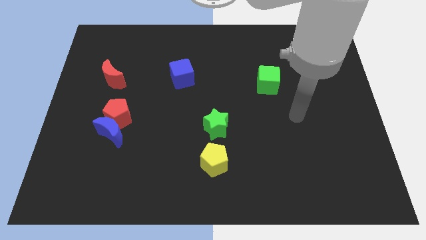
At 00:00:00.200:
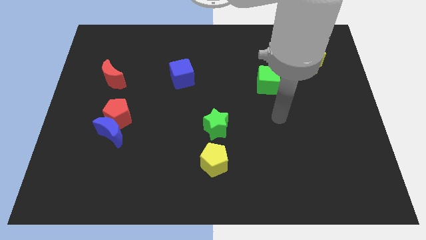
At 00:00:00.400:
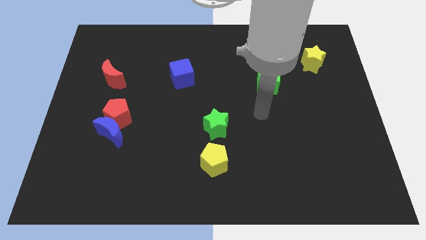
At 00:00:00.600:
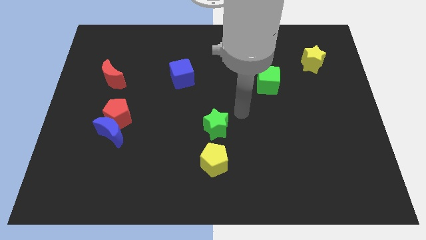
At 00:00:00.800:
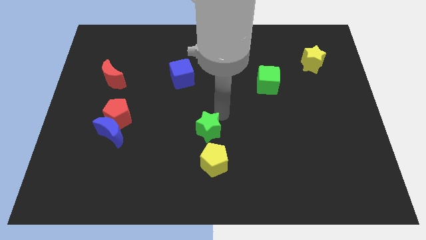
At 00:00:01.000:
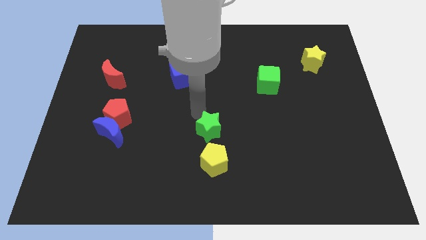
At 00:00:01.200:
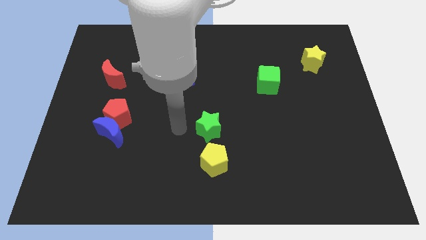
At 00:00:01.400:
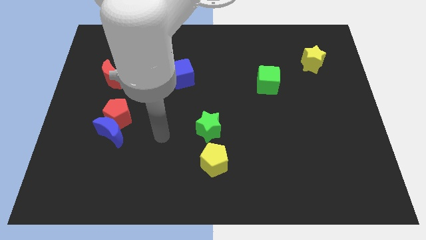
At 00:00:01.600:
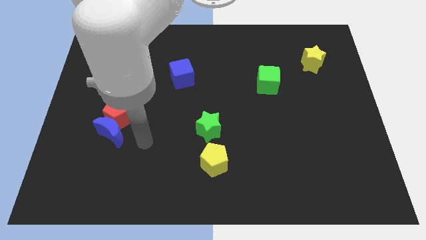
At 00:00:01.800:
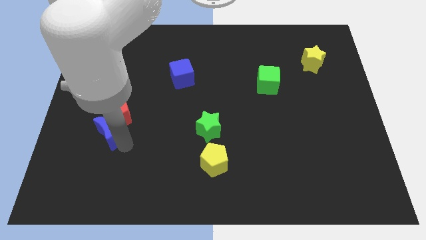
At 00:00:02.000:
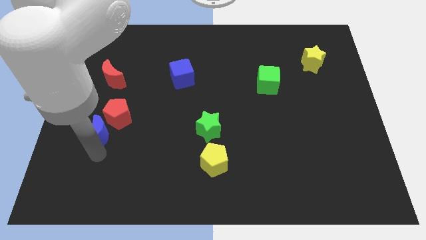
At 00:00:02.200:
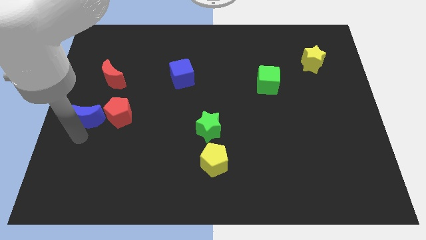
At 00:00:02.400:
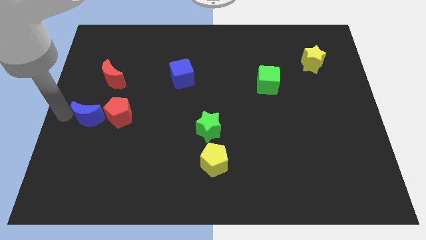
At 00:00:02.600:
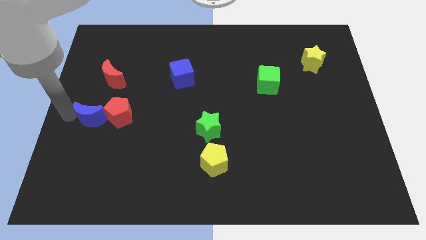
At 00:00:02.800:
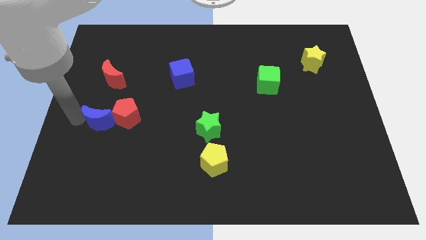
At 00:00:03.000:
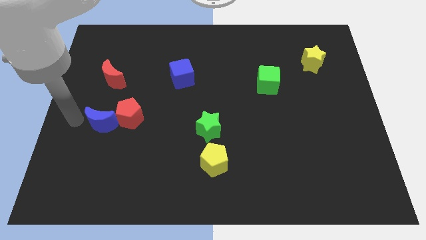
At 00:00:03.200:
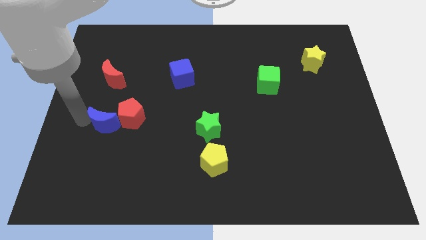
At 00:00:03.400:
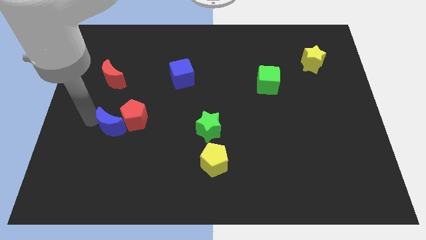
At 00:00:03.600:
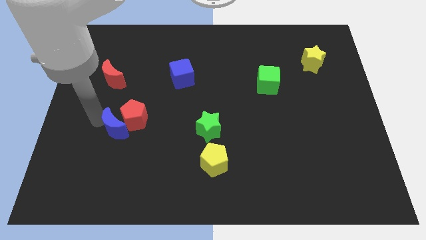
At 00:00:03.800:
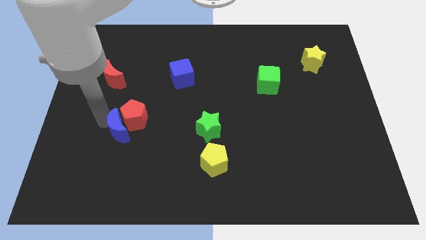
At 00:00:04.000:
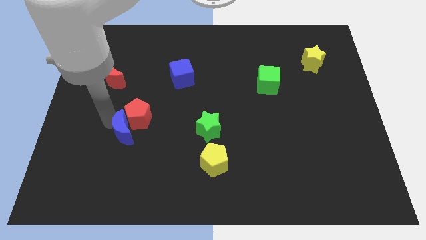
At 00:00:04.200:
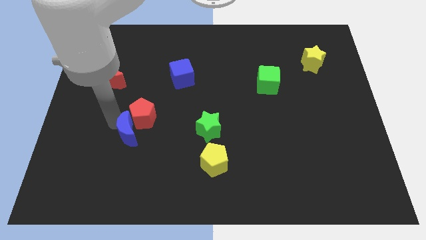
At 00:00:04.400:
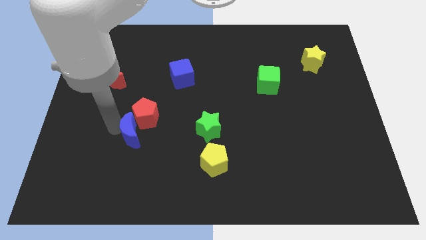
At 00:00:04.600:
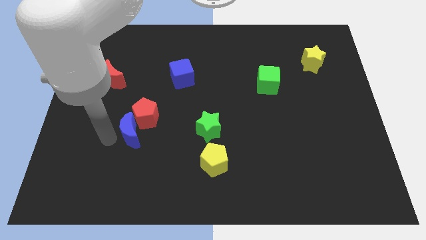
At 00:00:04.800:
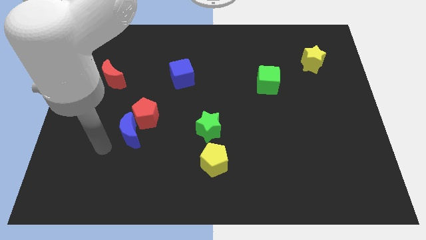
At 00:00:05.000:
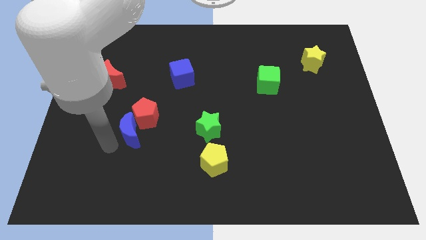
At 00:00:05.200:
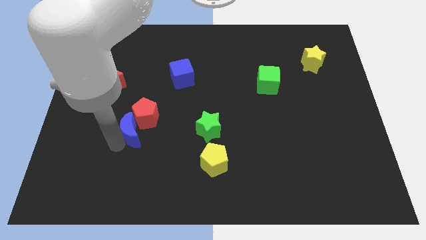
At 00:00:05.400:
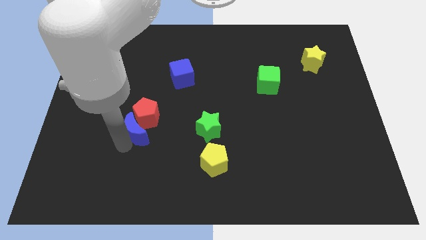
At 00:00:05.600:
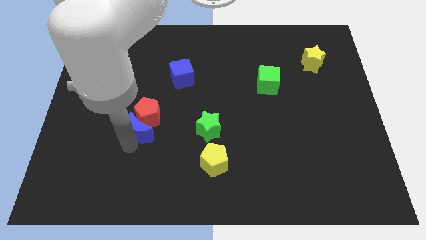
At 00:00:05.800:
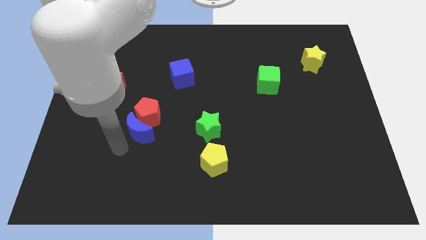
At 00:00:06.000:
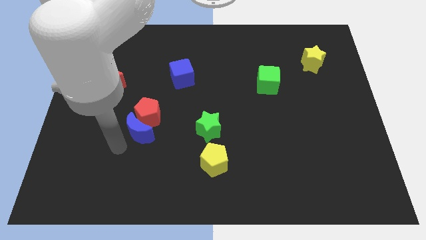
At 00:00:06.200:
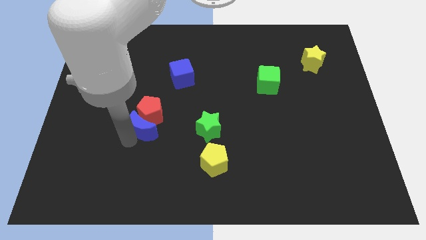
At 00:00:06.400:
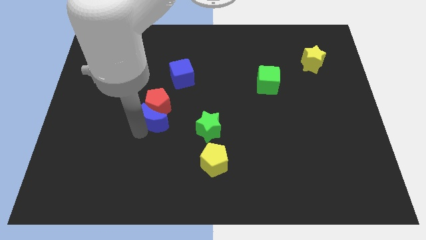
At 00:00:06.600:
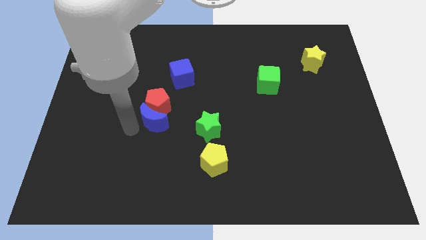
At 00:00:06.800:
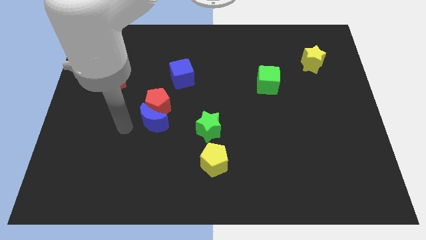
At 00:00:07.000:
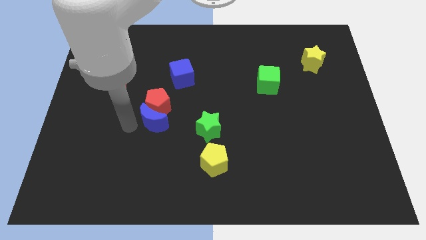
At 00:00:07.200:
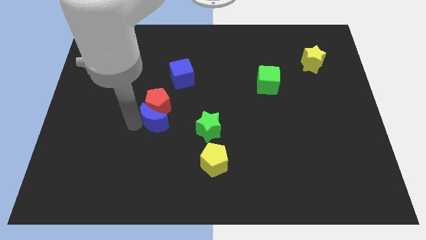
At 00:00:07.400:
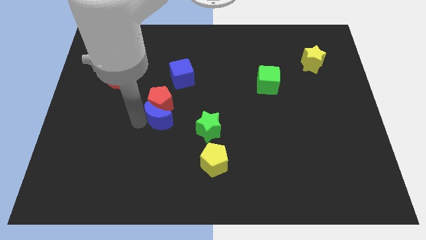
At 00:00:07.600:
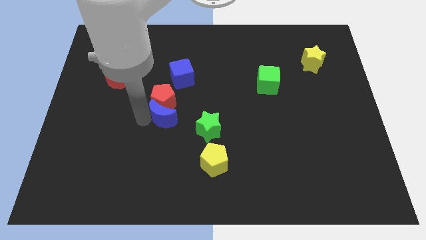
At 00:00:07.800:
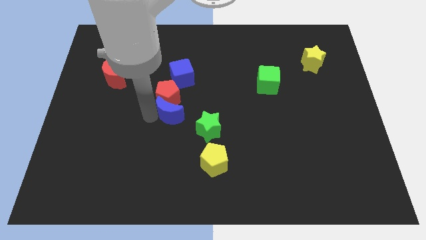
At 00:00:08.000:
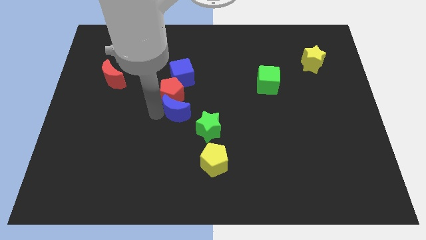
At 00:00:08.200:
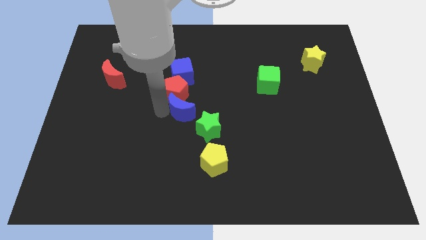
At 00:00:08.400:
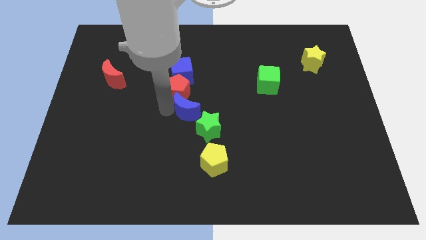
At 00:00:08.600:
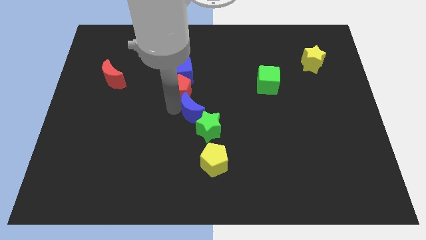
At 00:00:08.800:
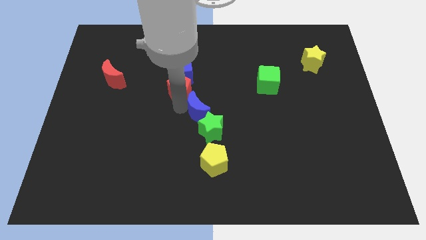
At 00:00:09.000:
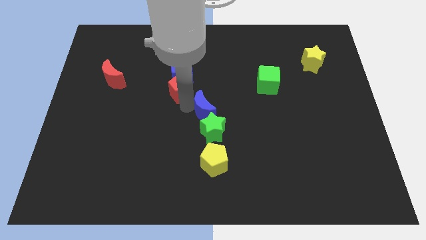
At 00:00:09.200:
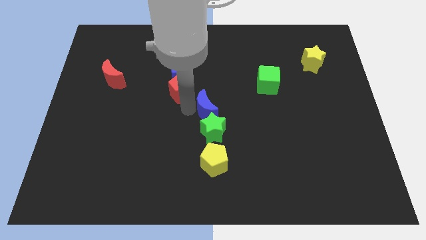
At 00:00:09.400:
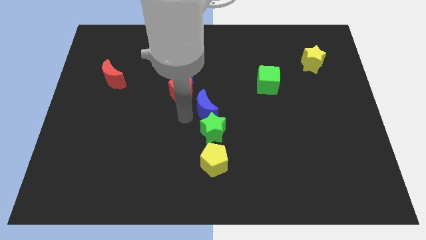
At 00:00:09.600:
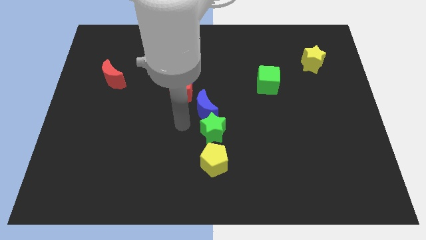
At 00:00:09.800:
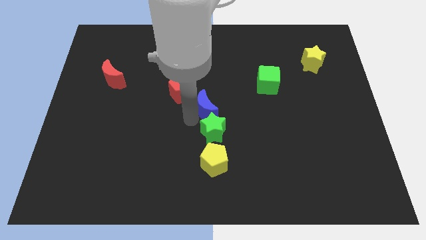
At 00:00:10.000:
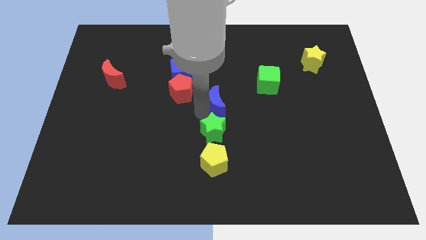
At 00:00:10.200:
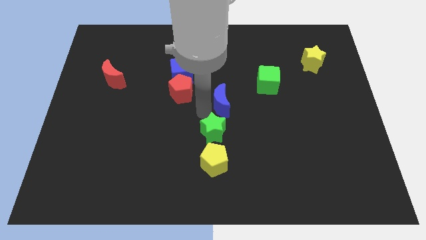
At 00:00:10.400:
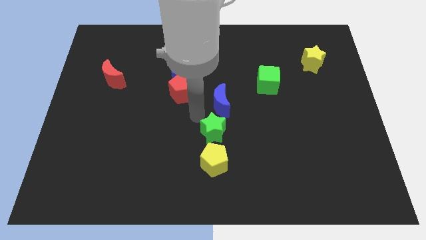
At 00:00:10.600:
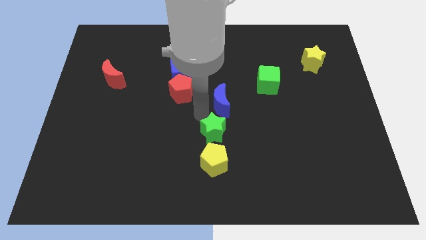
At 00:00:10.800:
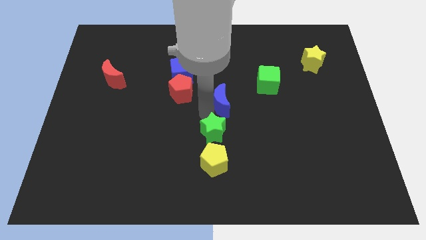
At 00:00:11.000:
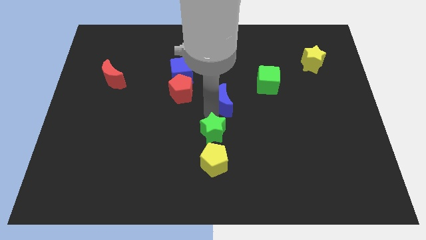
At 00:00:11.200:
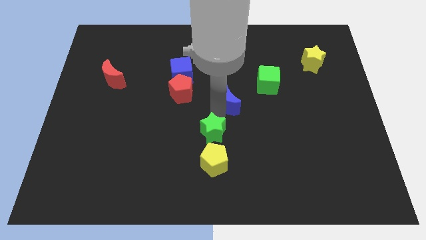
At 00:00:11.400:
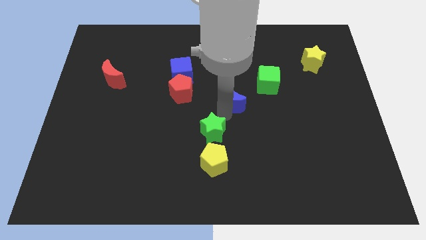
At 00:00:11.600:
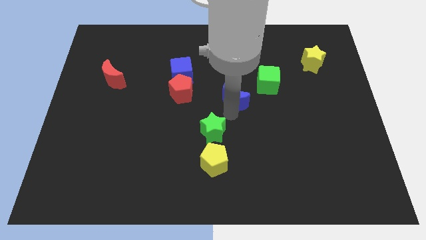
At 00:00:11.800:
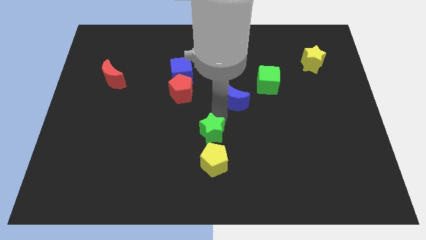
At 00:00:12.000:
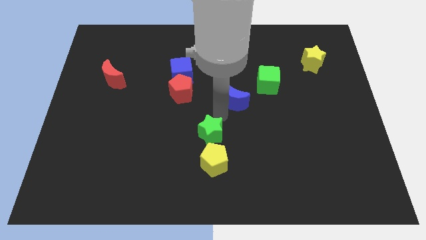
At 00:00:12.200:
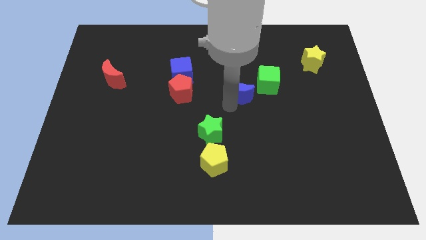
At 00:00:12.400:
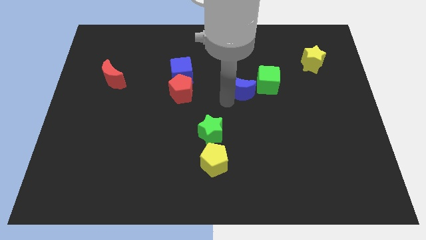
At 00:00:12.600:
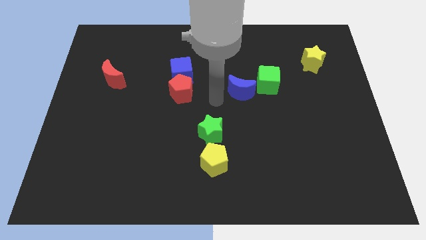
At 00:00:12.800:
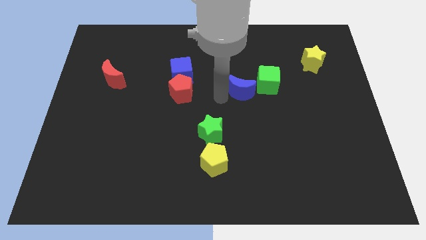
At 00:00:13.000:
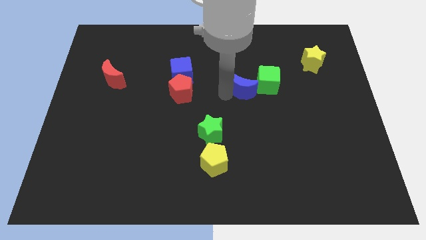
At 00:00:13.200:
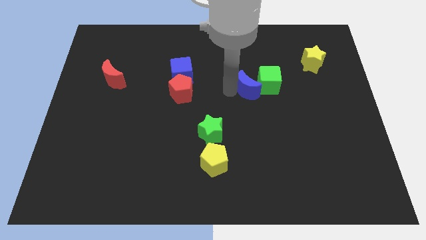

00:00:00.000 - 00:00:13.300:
put the blue moon towards the green cube
